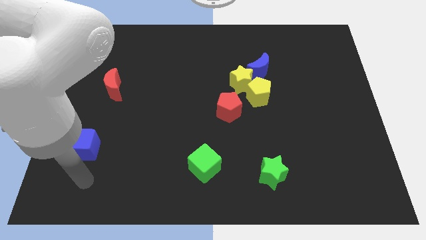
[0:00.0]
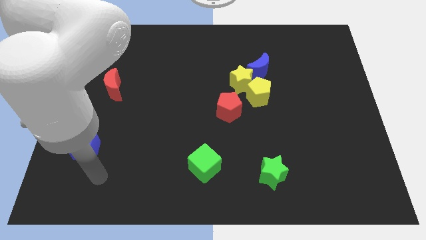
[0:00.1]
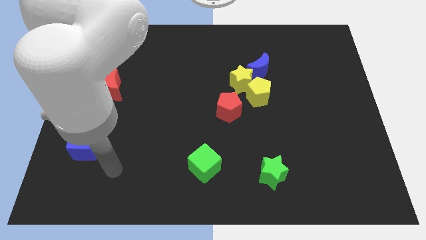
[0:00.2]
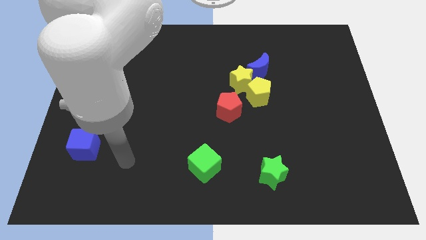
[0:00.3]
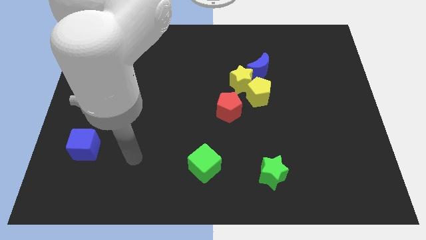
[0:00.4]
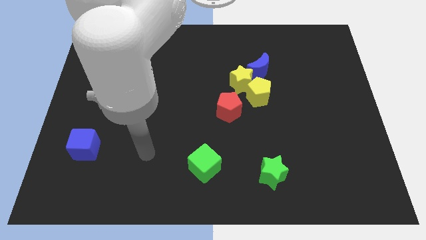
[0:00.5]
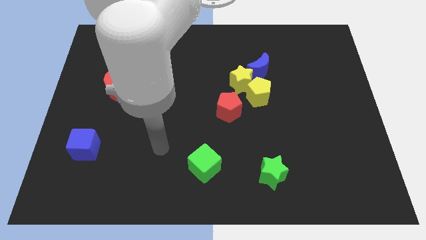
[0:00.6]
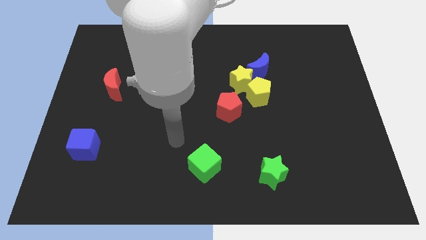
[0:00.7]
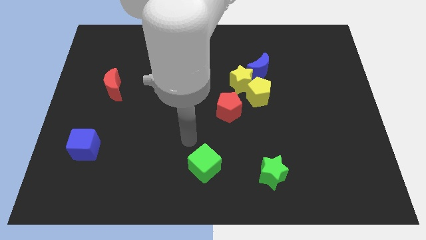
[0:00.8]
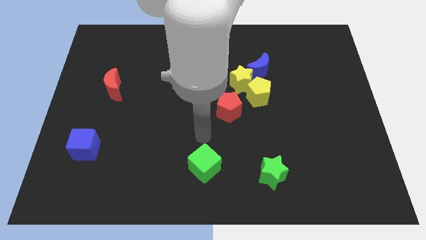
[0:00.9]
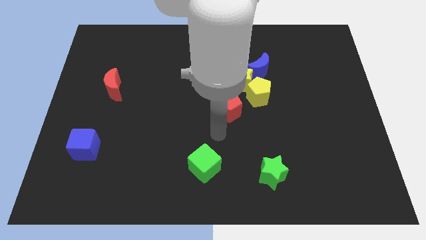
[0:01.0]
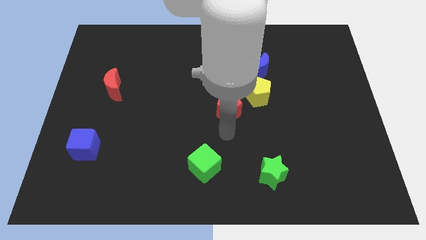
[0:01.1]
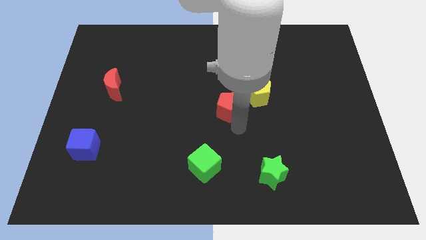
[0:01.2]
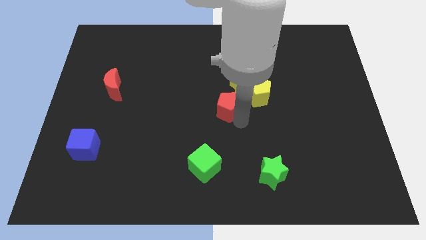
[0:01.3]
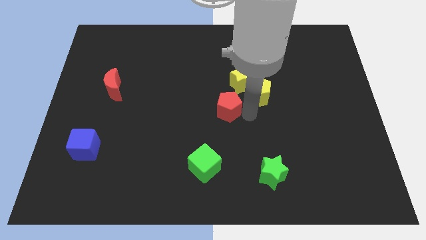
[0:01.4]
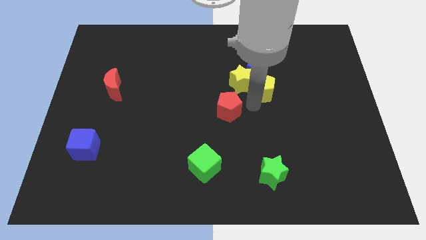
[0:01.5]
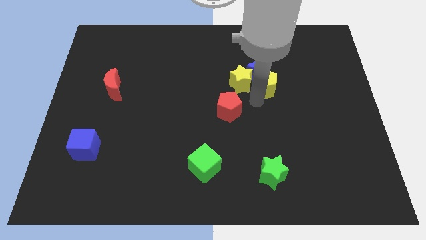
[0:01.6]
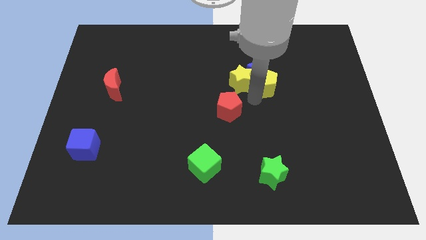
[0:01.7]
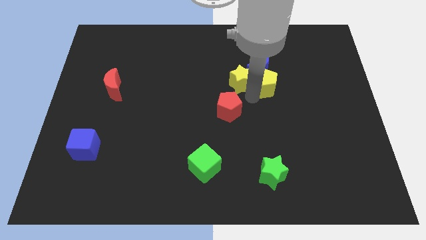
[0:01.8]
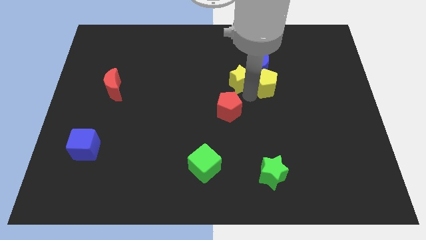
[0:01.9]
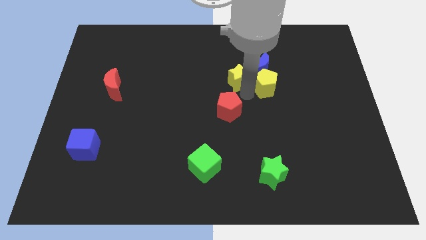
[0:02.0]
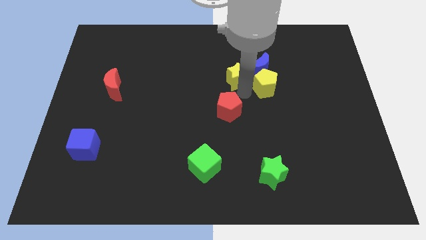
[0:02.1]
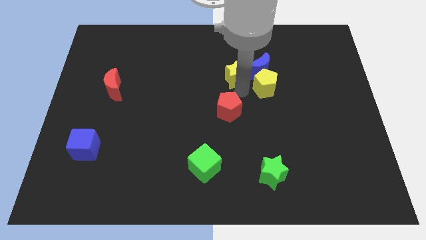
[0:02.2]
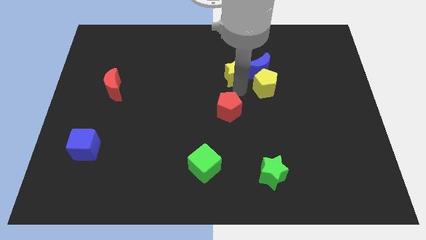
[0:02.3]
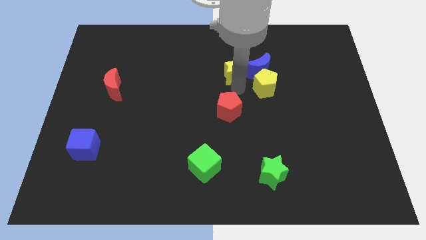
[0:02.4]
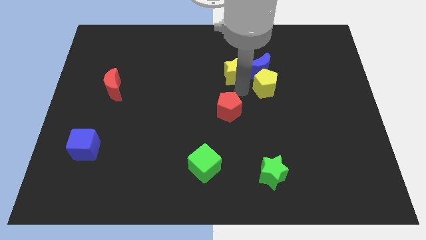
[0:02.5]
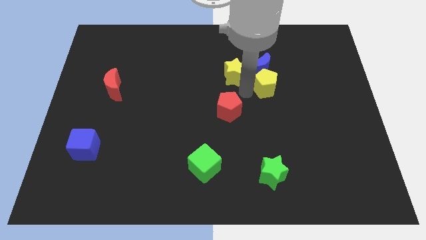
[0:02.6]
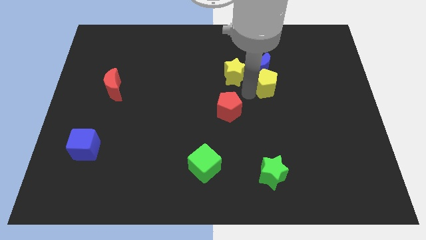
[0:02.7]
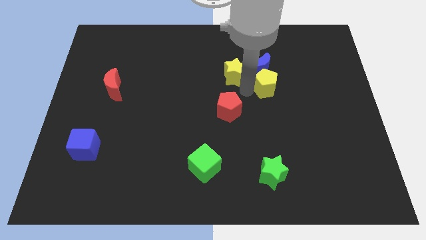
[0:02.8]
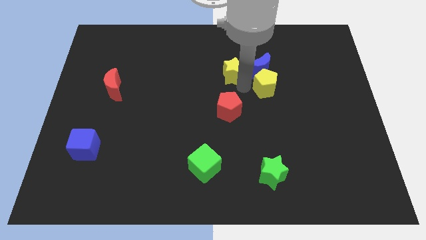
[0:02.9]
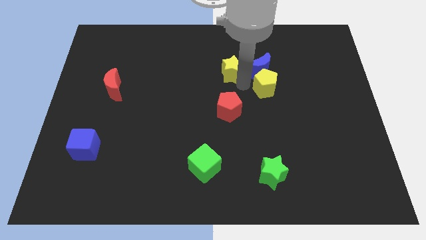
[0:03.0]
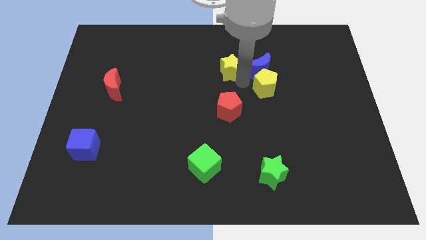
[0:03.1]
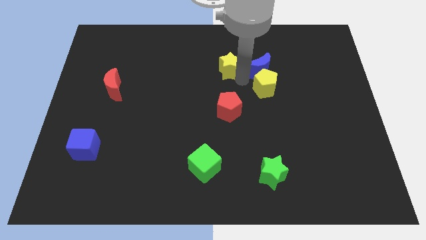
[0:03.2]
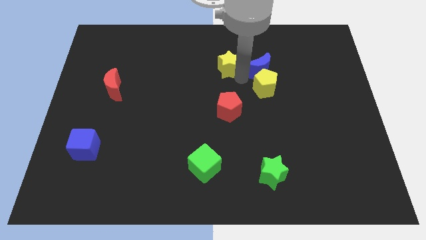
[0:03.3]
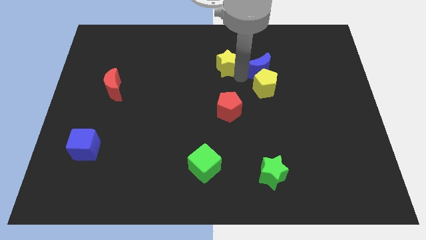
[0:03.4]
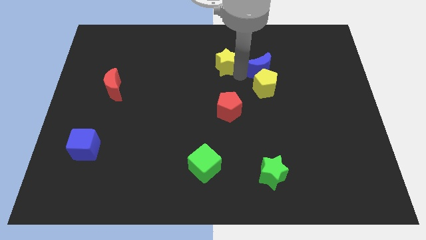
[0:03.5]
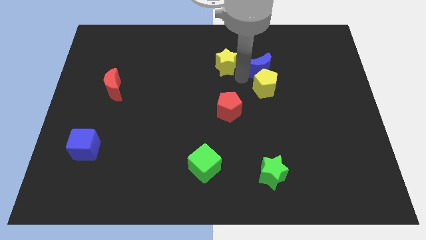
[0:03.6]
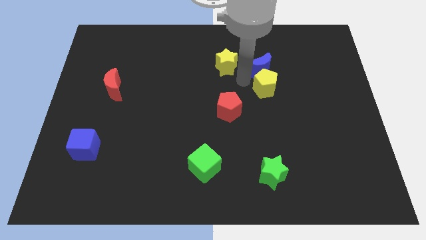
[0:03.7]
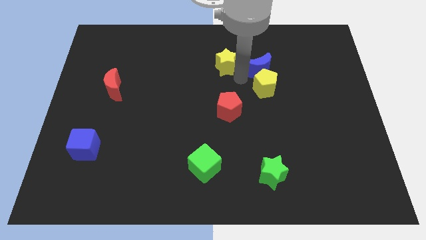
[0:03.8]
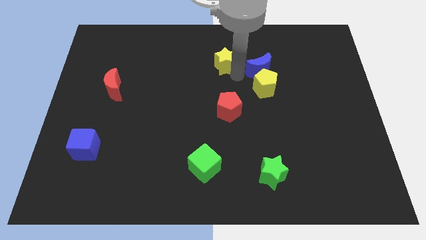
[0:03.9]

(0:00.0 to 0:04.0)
separate the yellow star from the group

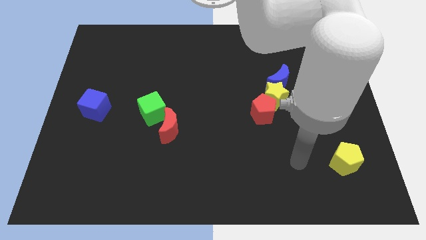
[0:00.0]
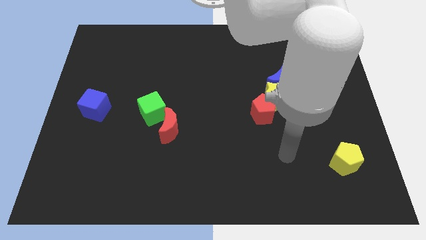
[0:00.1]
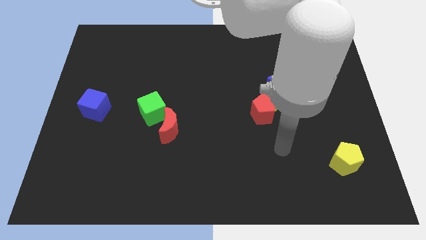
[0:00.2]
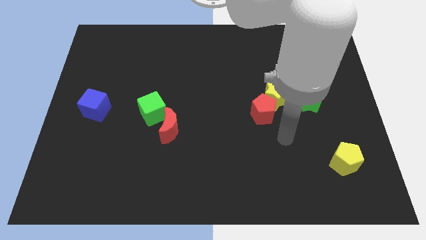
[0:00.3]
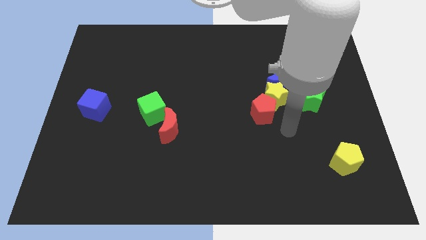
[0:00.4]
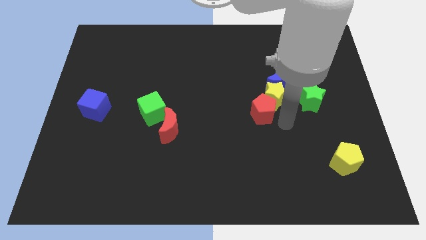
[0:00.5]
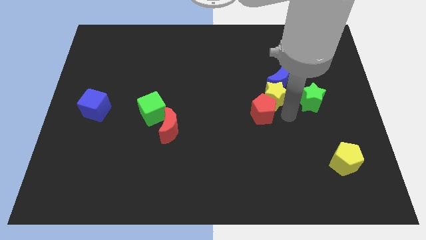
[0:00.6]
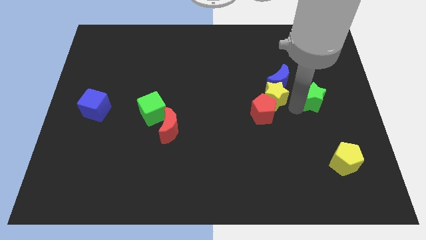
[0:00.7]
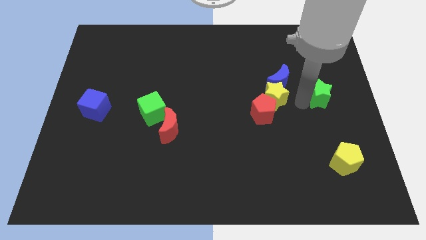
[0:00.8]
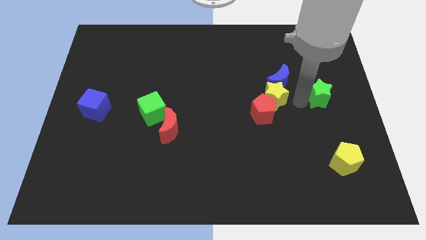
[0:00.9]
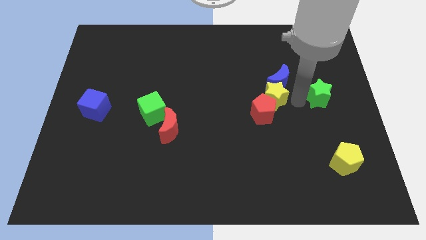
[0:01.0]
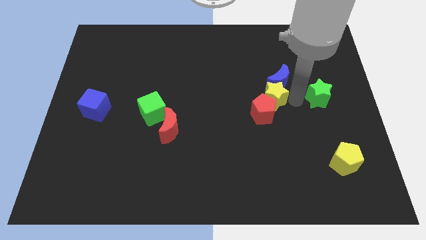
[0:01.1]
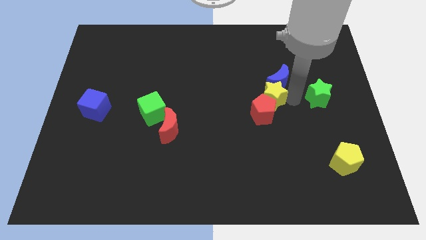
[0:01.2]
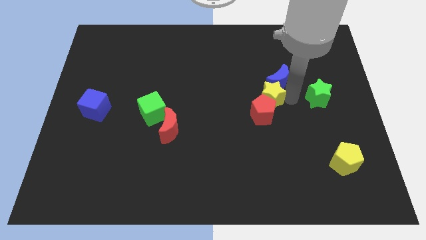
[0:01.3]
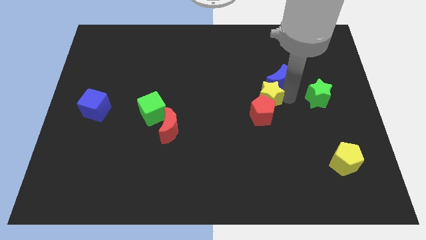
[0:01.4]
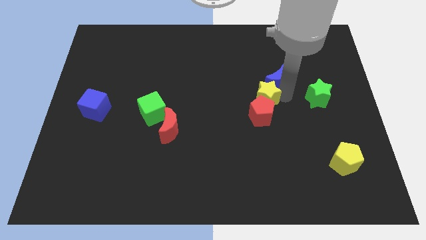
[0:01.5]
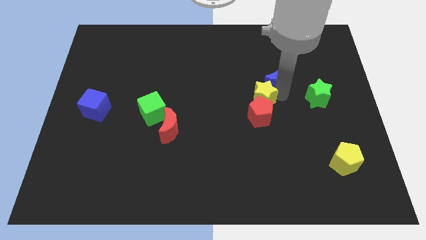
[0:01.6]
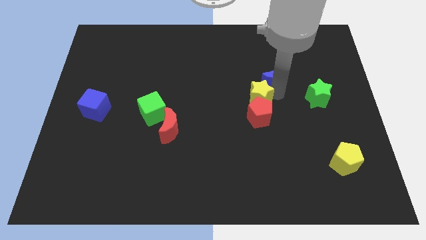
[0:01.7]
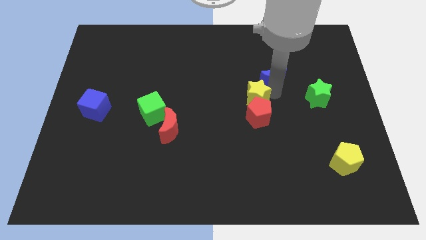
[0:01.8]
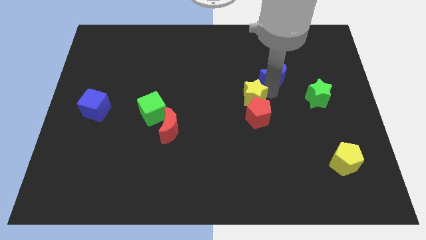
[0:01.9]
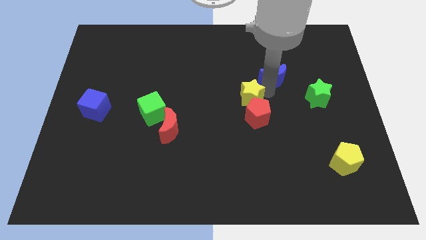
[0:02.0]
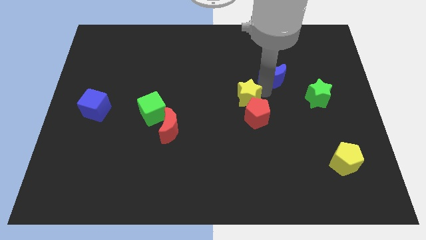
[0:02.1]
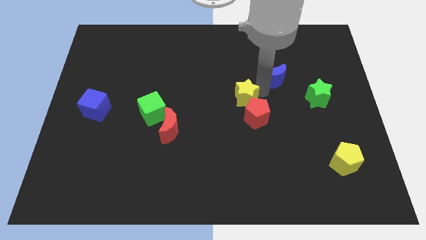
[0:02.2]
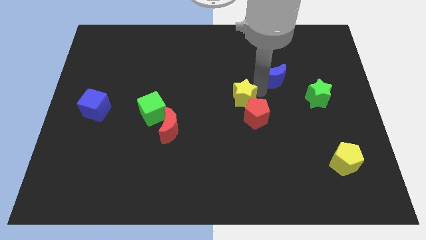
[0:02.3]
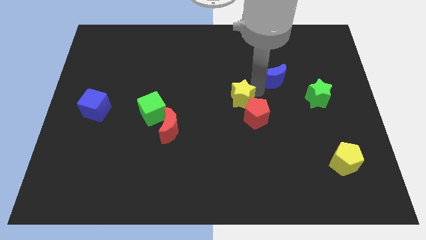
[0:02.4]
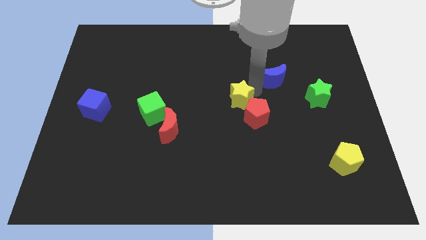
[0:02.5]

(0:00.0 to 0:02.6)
move the yellow star away from the blue moon, red pentagon, and green star

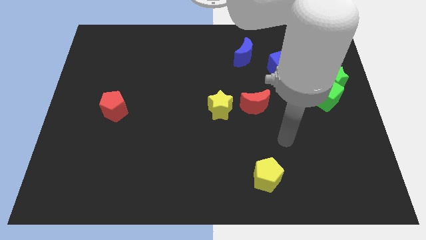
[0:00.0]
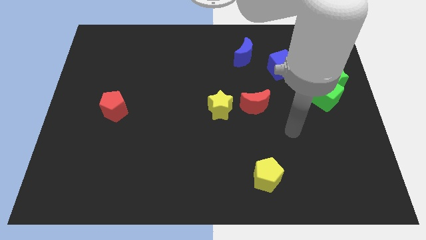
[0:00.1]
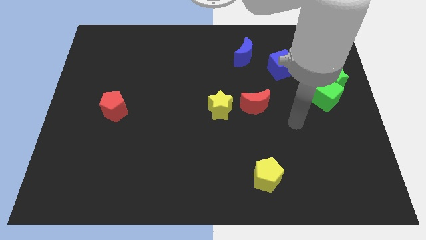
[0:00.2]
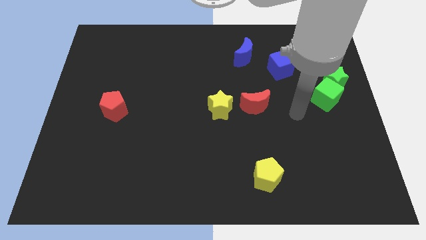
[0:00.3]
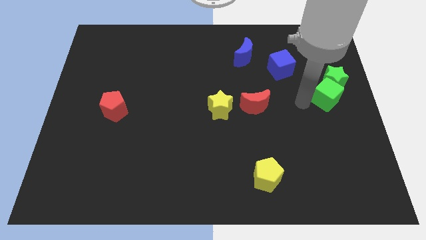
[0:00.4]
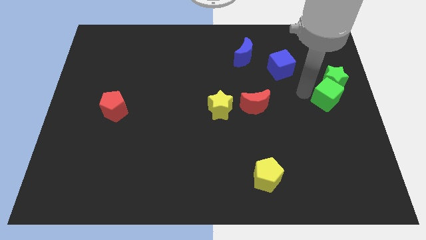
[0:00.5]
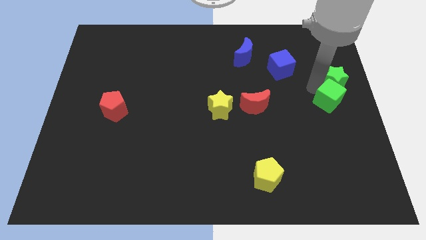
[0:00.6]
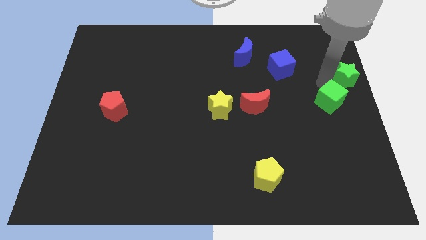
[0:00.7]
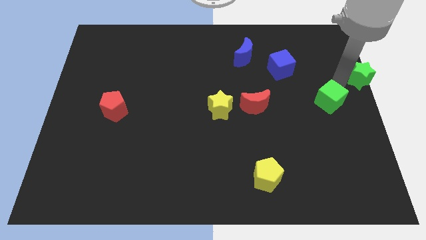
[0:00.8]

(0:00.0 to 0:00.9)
separate the green cube from the green star

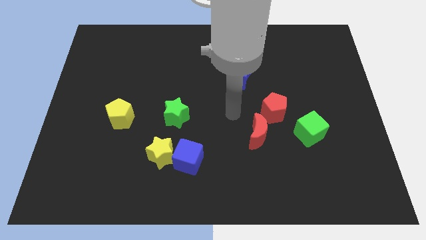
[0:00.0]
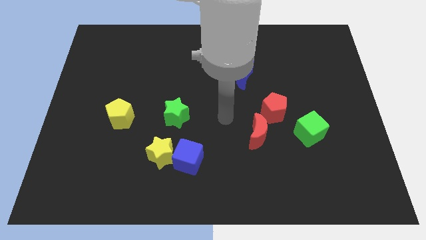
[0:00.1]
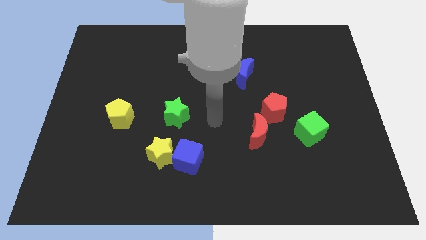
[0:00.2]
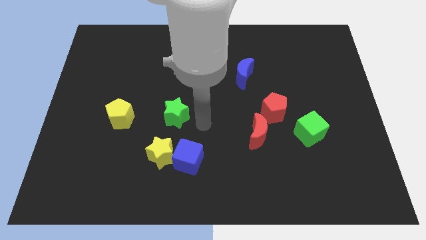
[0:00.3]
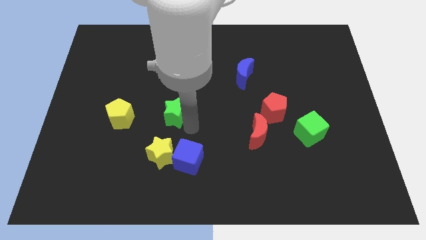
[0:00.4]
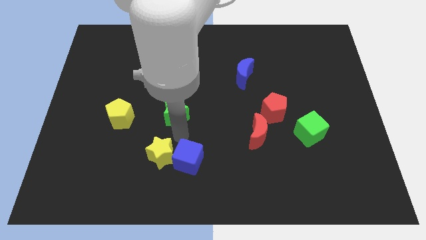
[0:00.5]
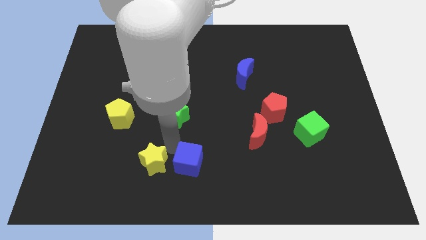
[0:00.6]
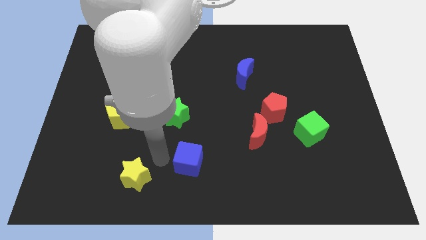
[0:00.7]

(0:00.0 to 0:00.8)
pull the blue cube apart from the yellow star

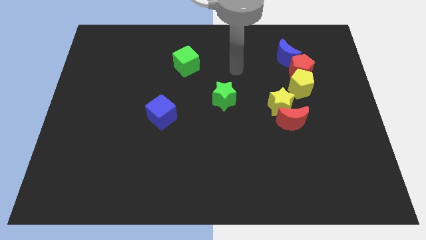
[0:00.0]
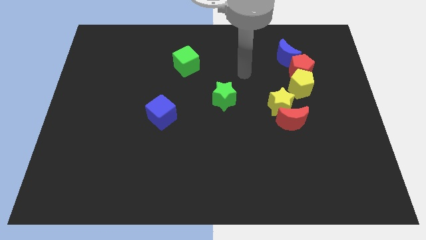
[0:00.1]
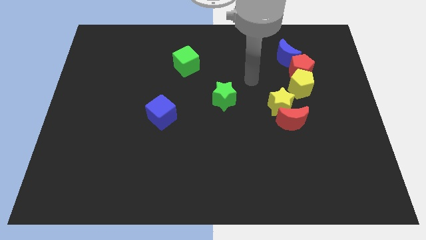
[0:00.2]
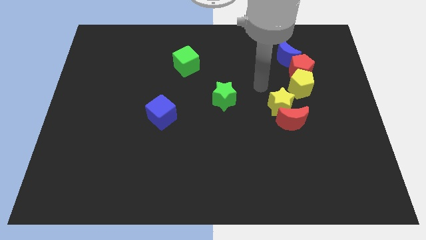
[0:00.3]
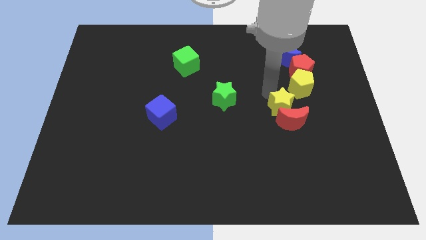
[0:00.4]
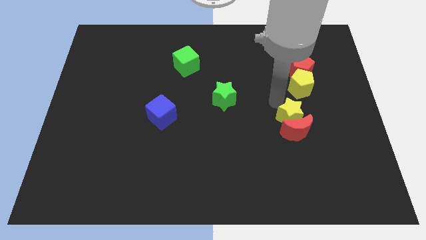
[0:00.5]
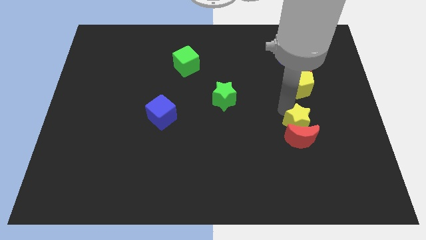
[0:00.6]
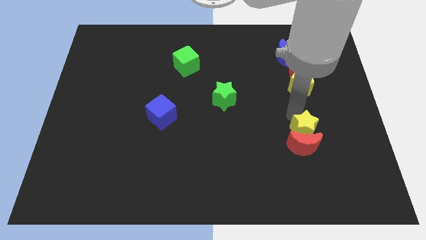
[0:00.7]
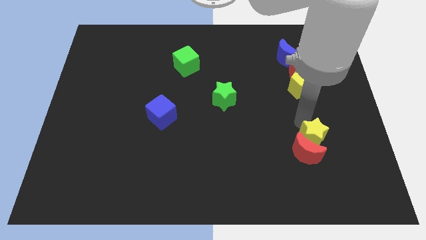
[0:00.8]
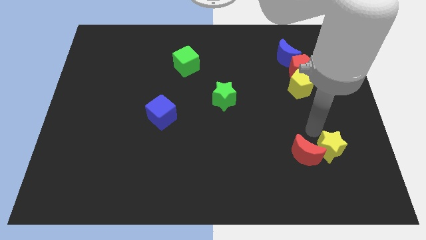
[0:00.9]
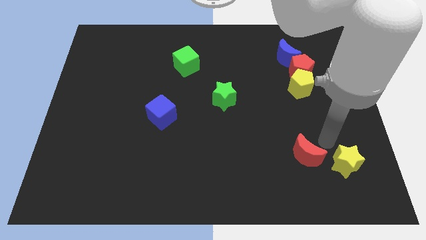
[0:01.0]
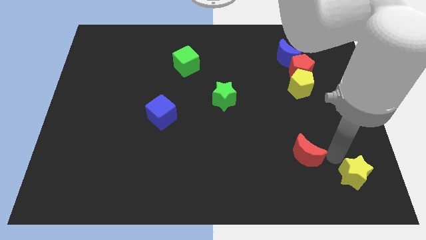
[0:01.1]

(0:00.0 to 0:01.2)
pull the red moon apart from the yellow star
